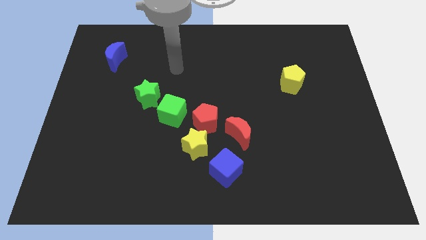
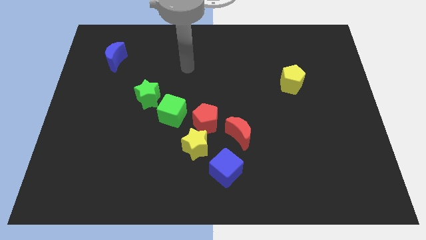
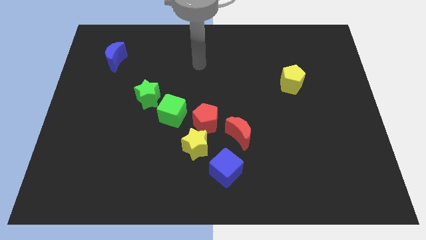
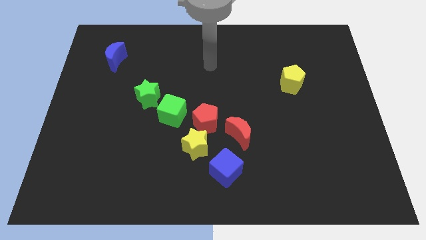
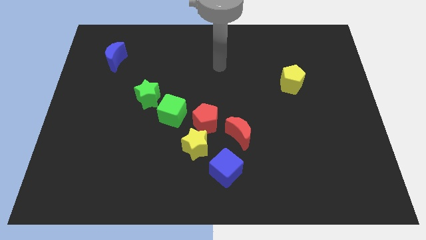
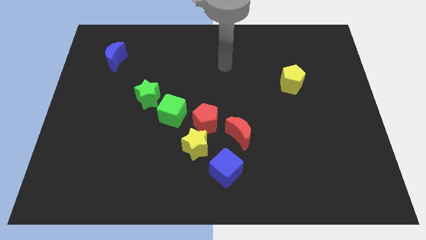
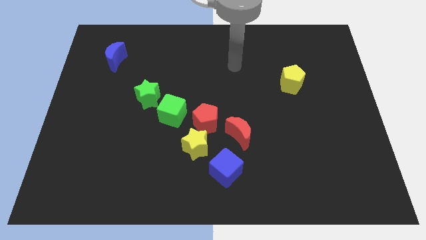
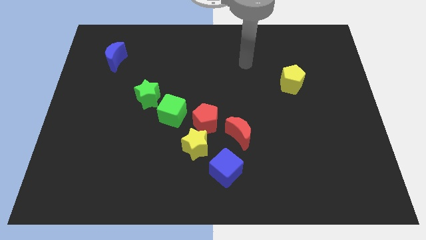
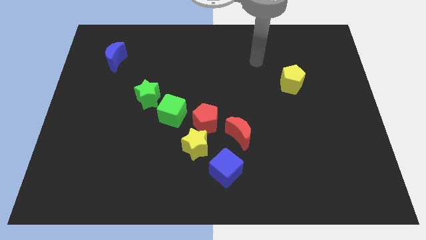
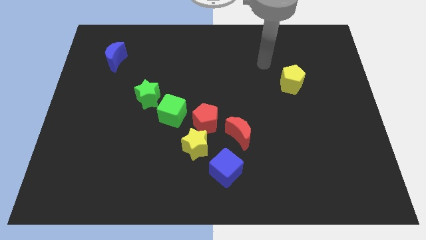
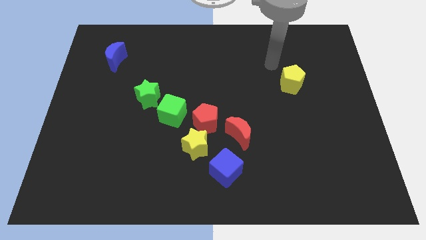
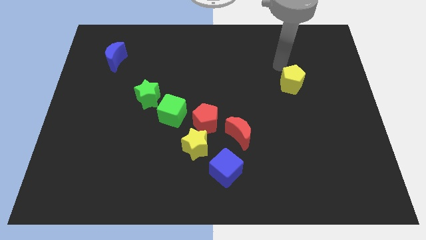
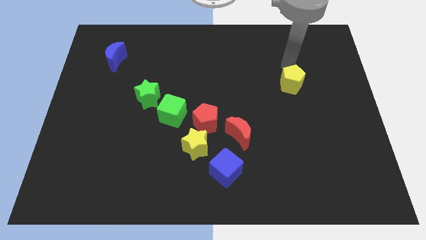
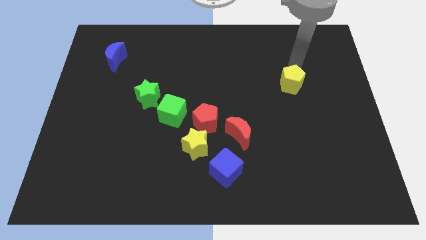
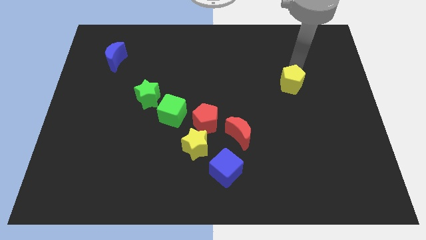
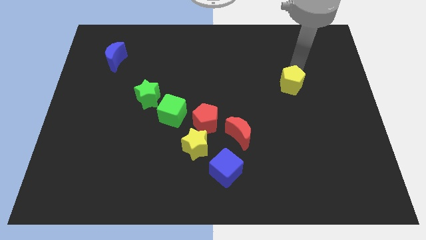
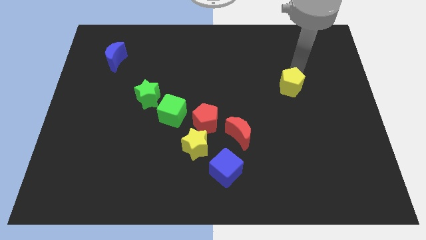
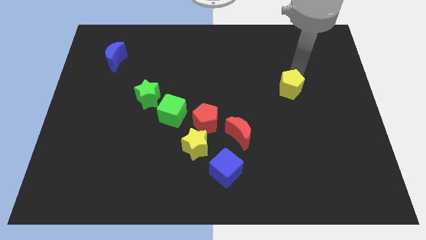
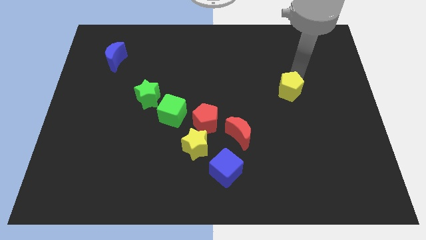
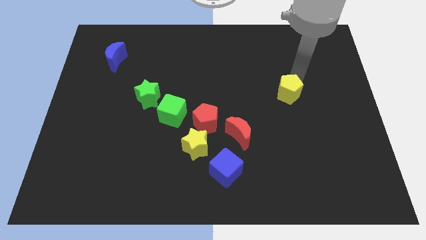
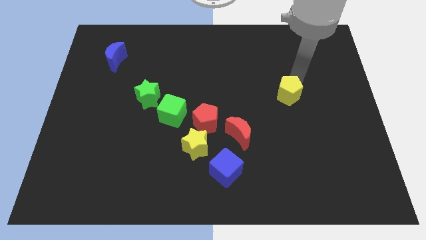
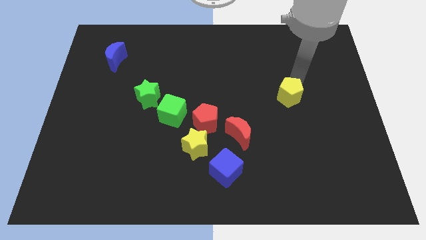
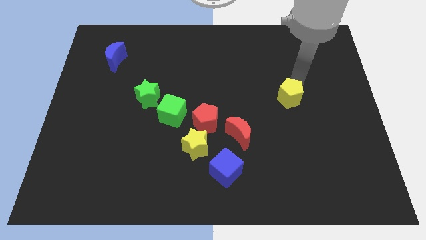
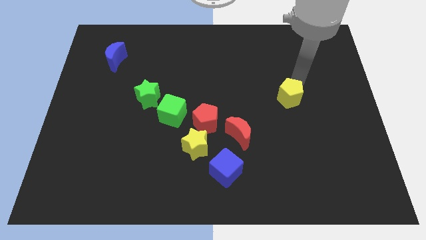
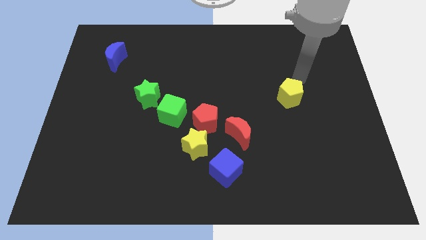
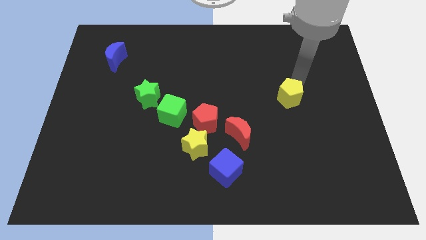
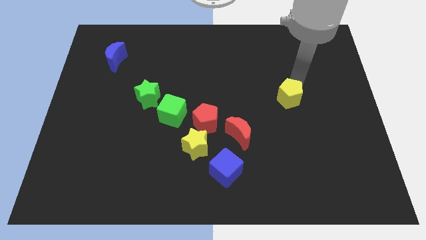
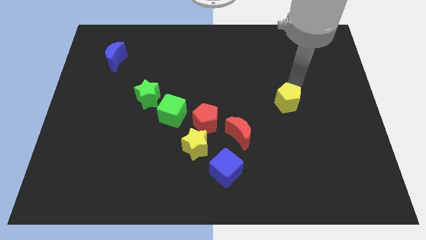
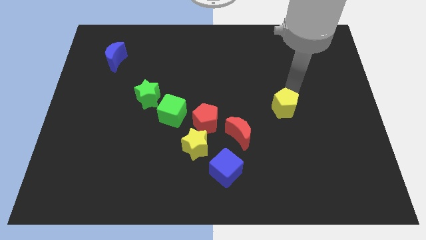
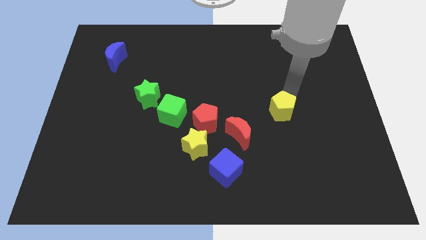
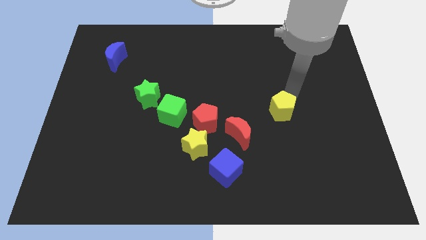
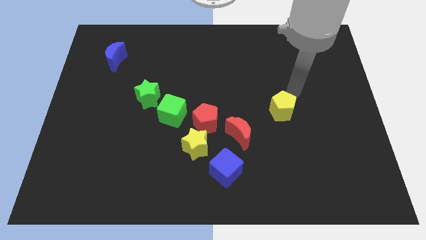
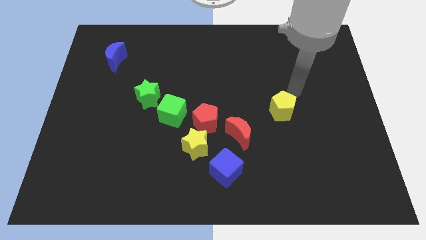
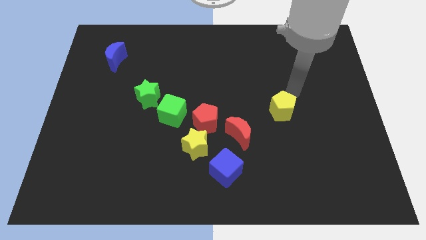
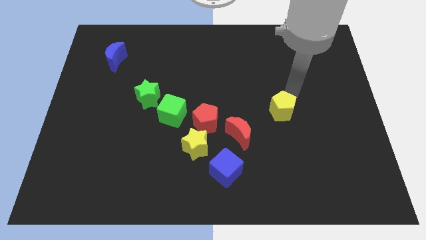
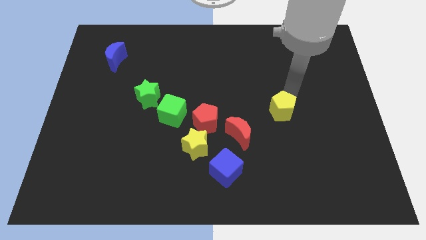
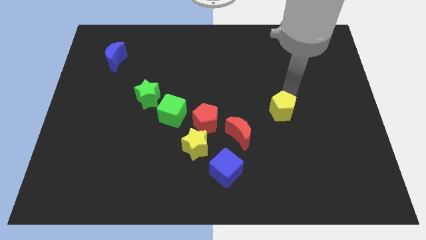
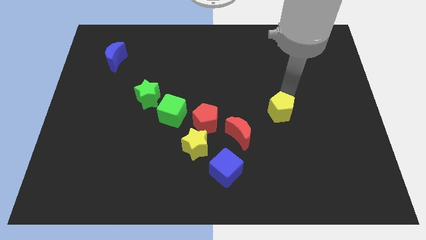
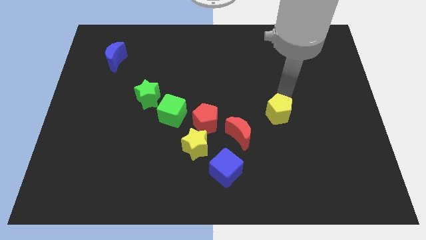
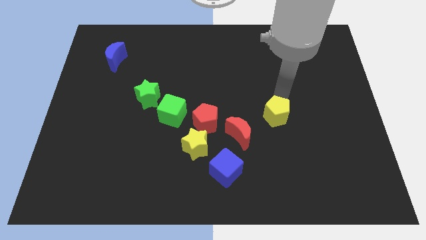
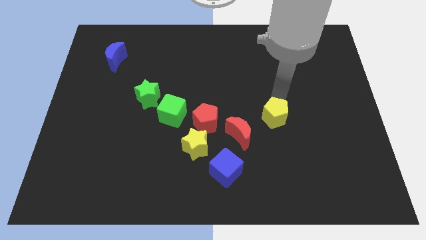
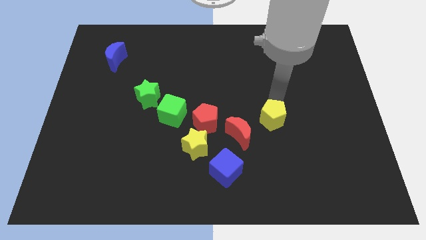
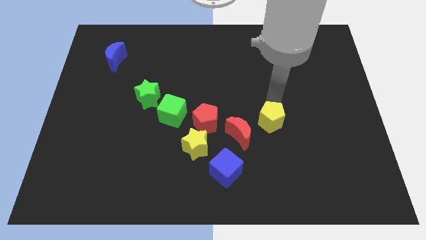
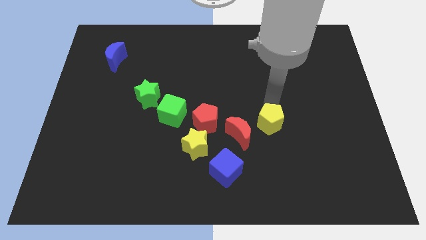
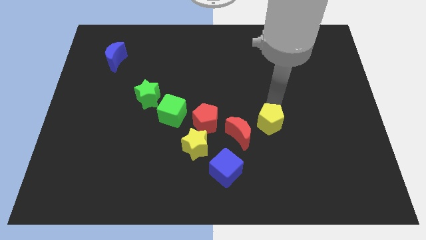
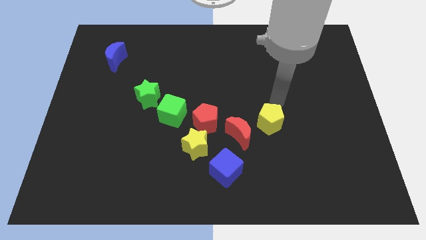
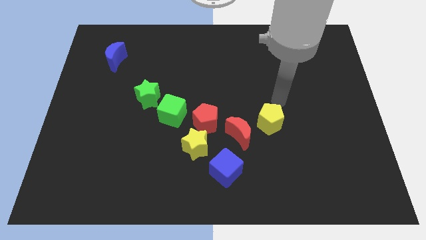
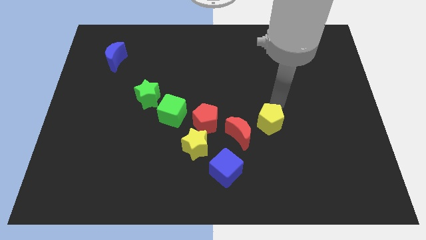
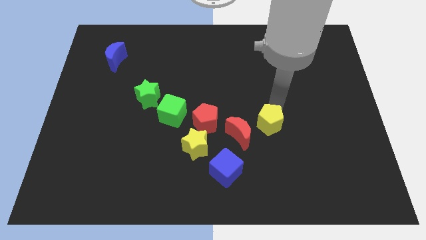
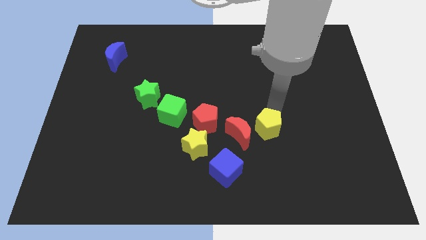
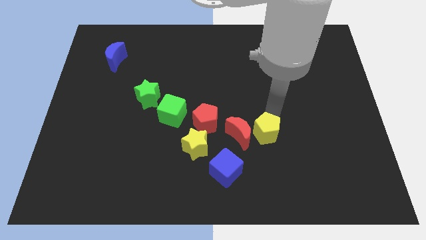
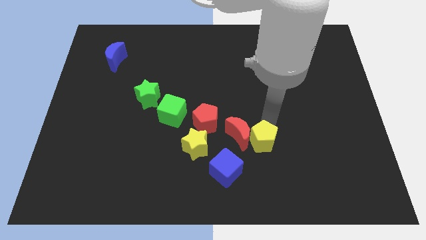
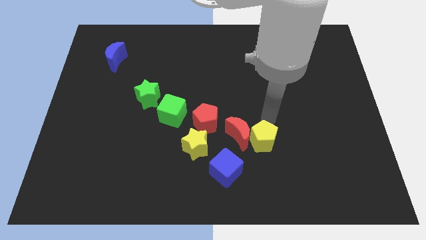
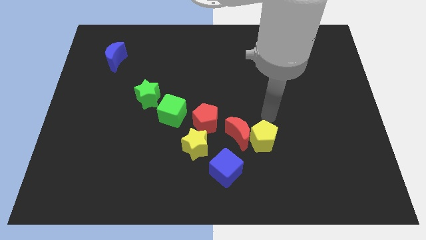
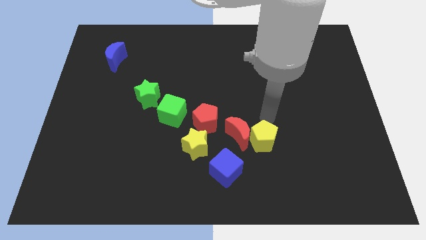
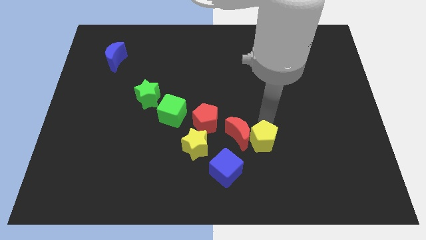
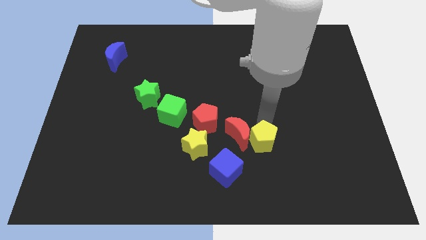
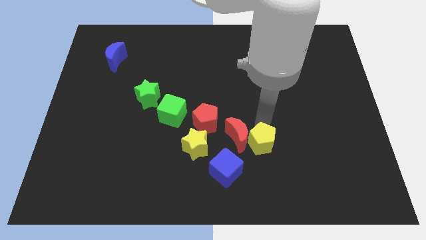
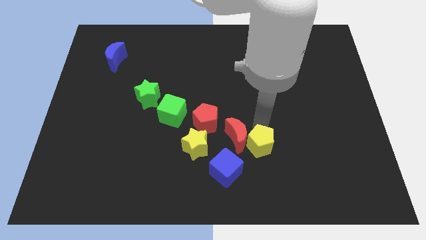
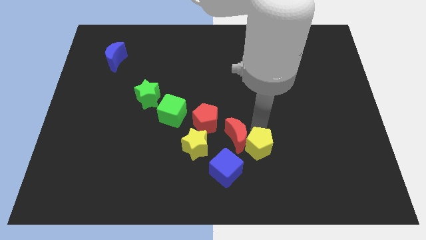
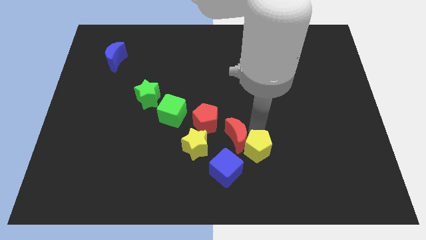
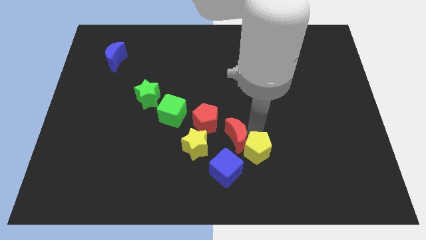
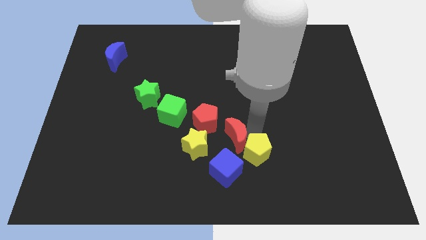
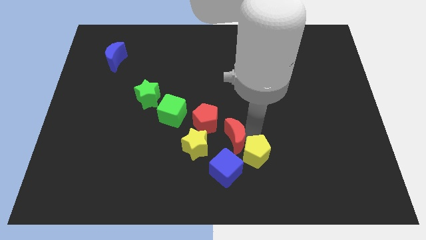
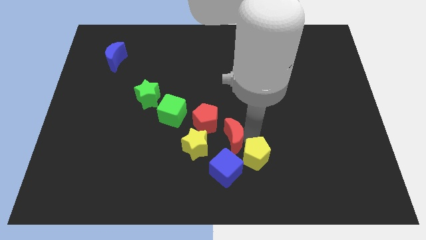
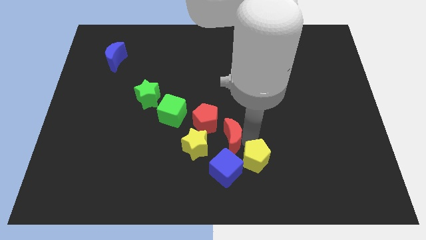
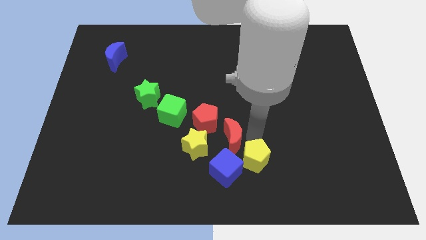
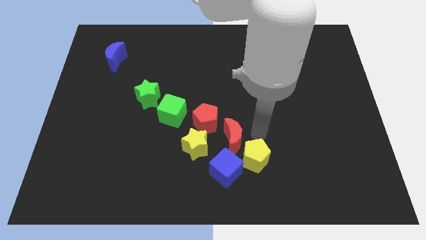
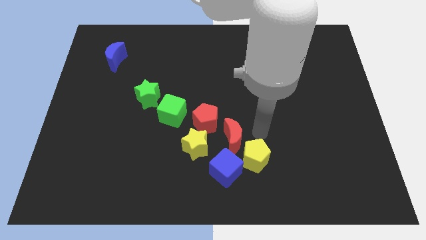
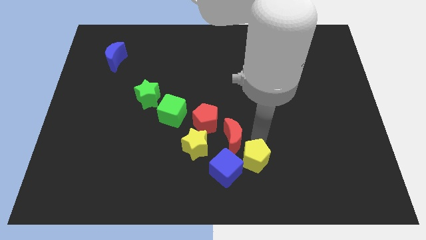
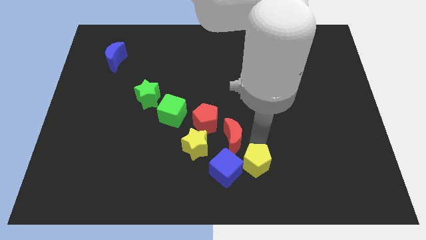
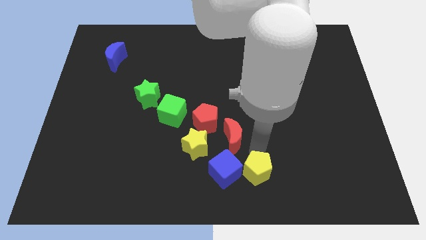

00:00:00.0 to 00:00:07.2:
slide the yellow pentagon to the bottom side
